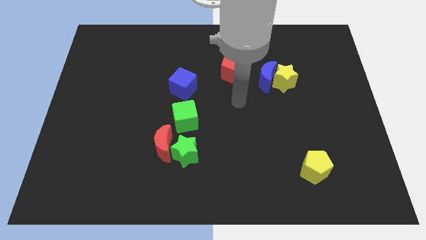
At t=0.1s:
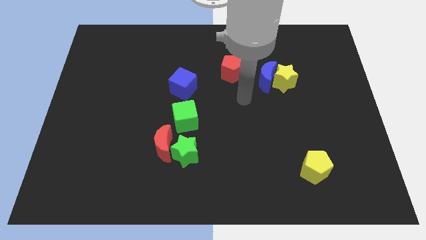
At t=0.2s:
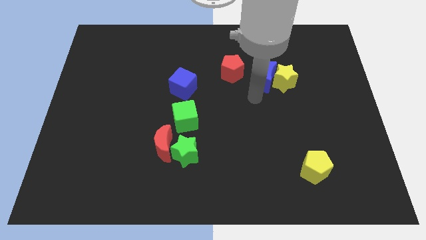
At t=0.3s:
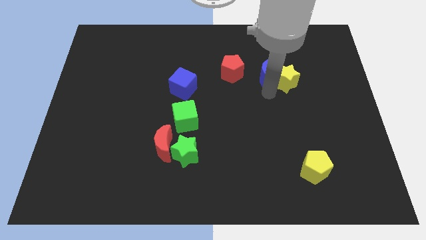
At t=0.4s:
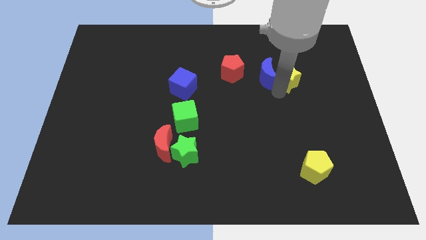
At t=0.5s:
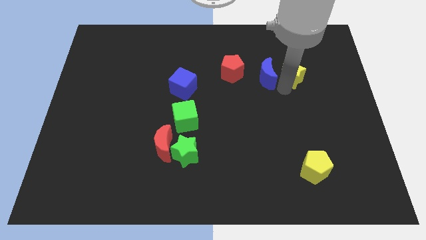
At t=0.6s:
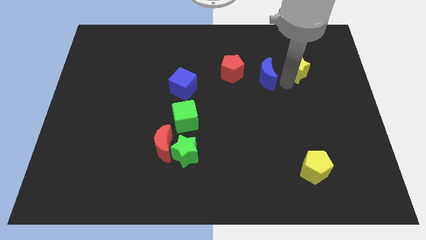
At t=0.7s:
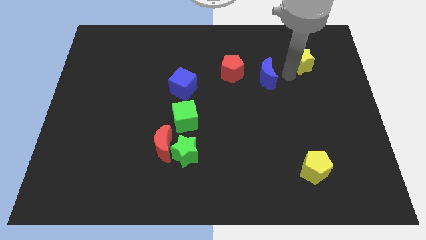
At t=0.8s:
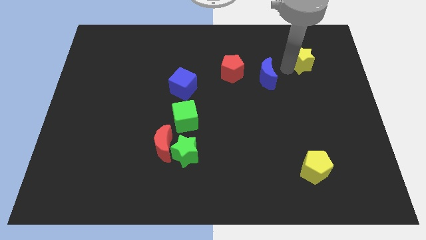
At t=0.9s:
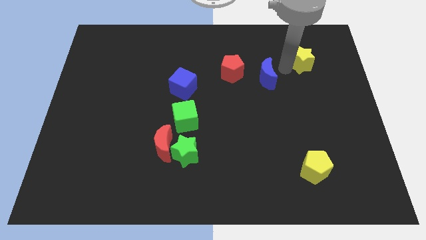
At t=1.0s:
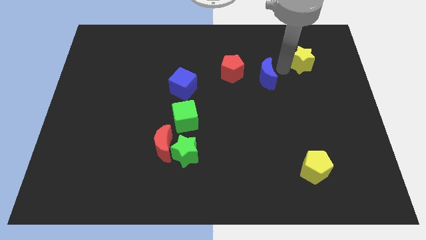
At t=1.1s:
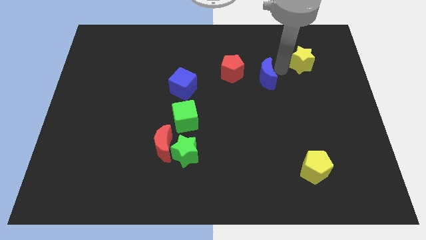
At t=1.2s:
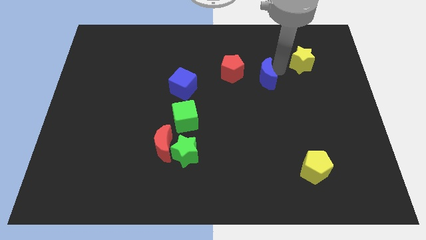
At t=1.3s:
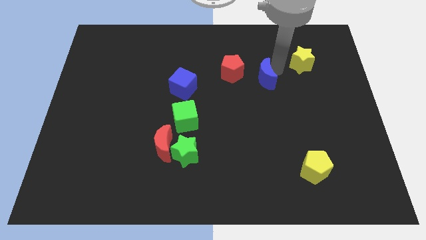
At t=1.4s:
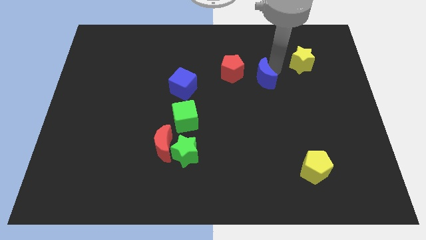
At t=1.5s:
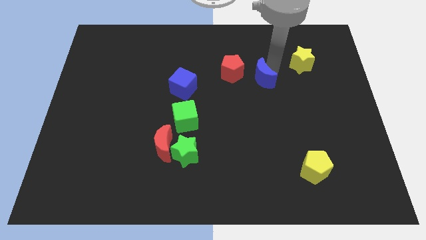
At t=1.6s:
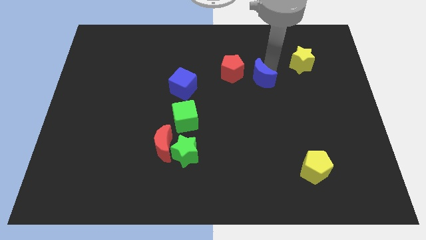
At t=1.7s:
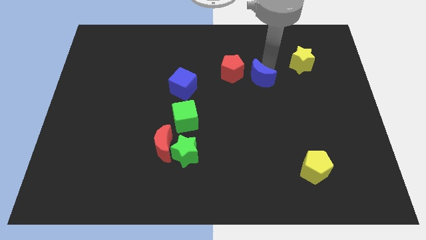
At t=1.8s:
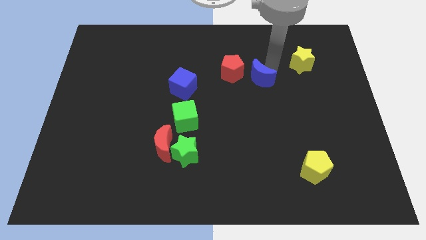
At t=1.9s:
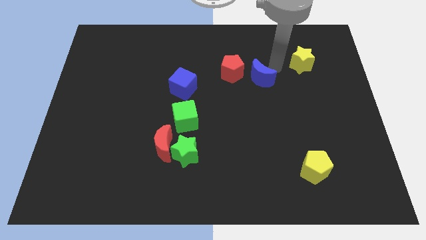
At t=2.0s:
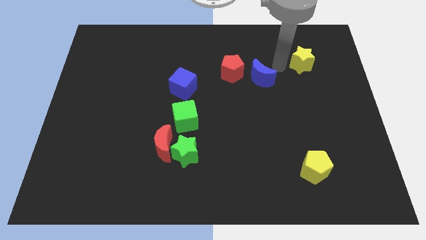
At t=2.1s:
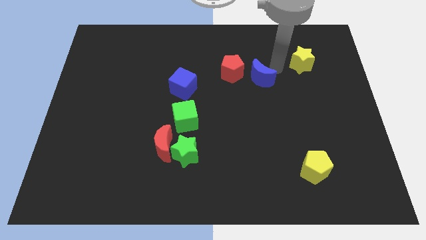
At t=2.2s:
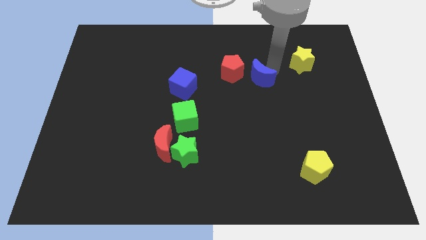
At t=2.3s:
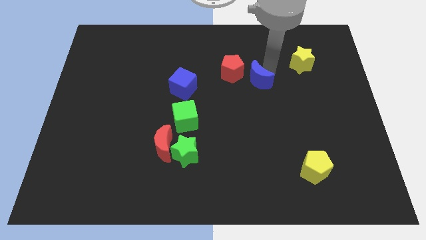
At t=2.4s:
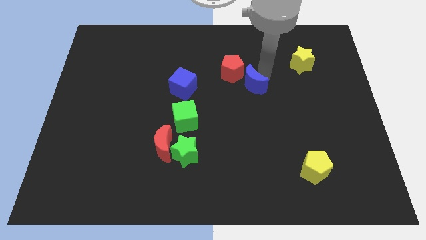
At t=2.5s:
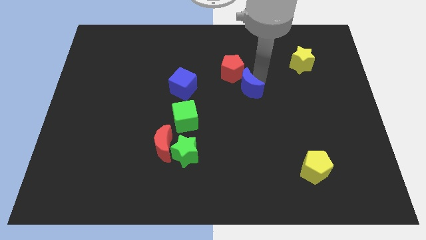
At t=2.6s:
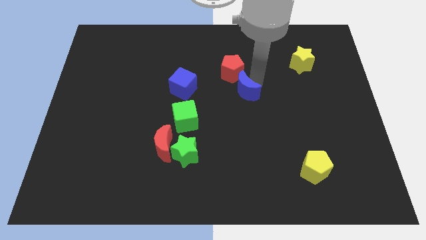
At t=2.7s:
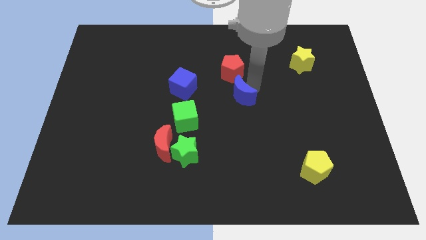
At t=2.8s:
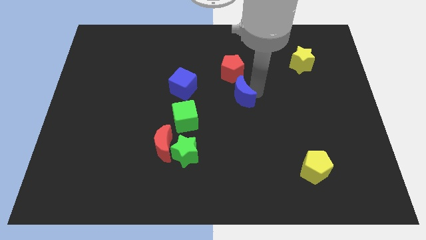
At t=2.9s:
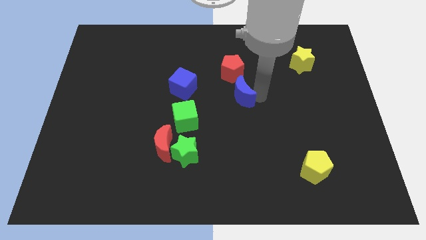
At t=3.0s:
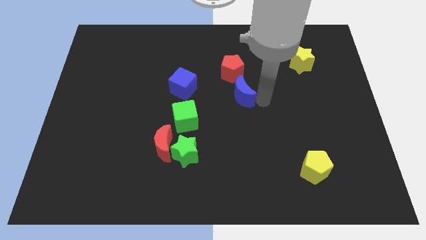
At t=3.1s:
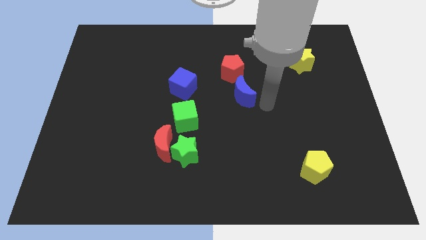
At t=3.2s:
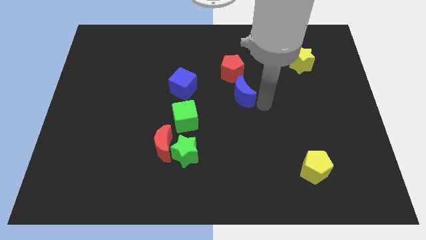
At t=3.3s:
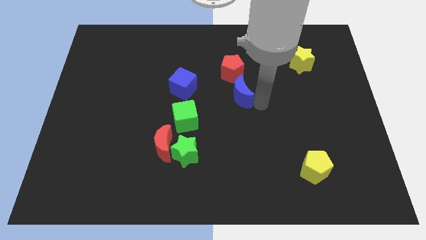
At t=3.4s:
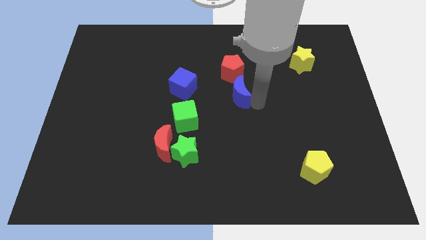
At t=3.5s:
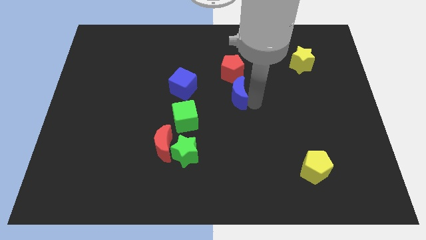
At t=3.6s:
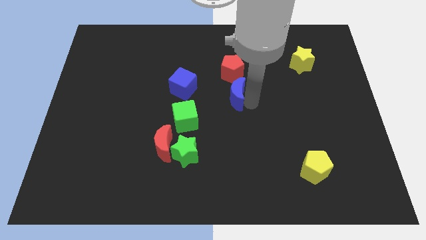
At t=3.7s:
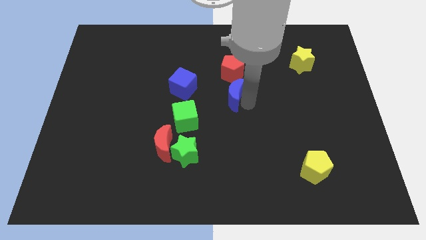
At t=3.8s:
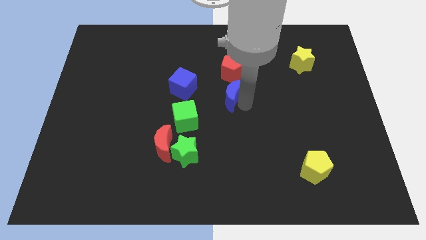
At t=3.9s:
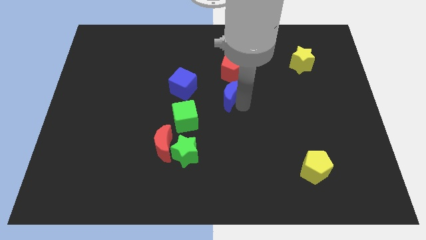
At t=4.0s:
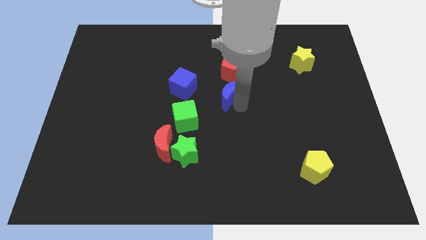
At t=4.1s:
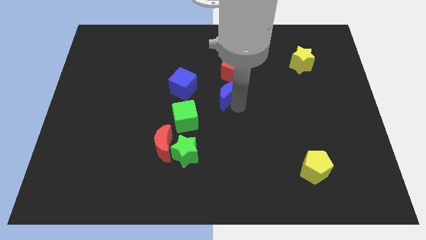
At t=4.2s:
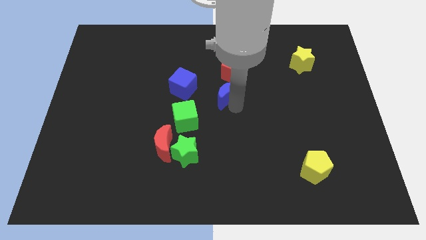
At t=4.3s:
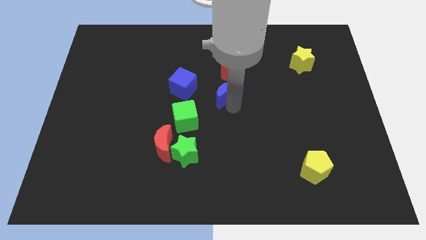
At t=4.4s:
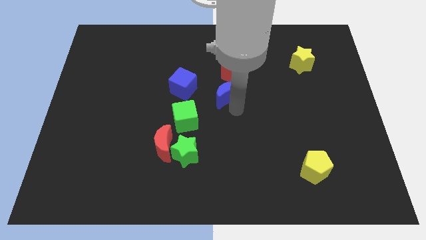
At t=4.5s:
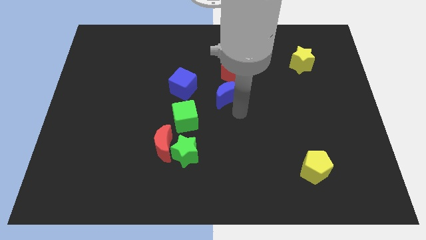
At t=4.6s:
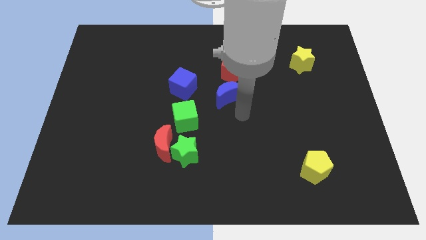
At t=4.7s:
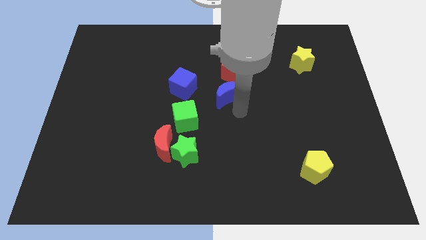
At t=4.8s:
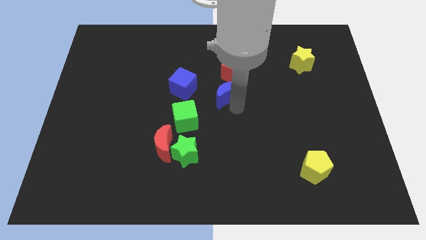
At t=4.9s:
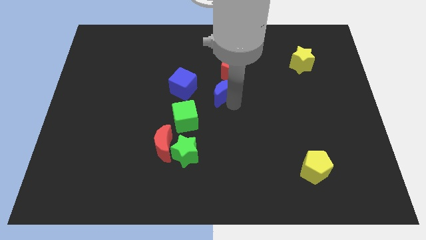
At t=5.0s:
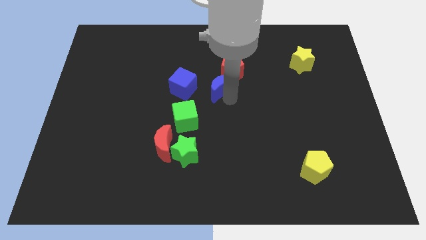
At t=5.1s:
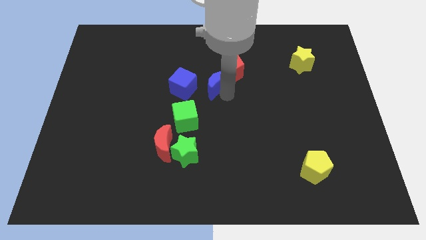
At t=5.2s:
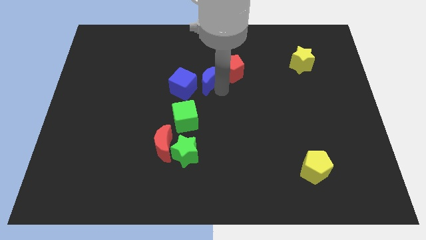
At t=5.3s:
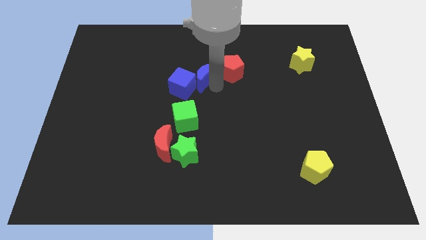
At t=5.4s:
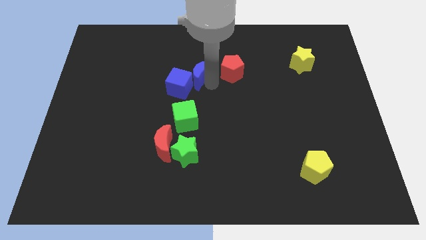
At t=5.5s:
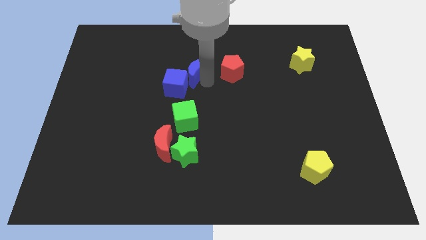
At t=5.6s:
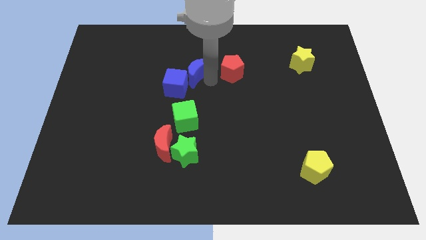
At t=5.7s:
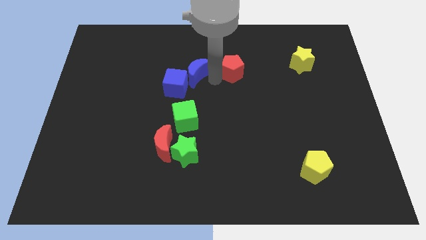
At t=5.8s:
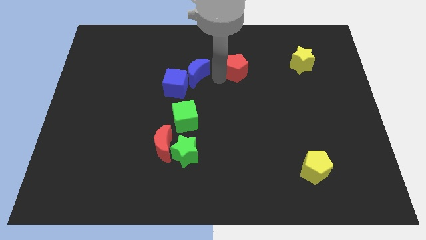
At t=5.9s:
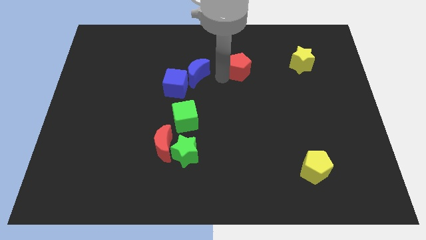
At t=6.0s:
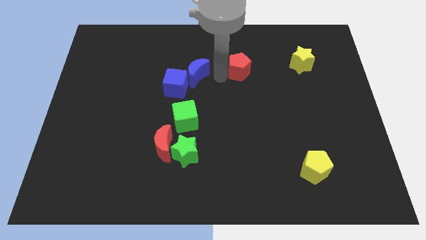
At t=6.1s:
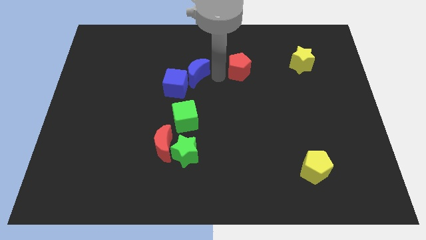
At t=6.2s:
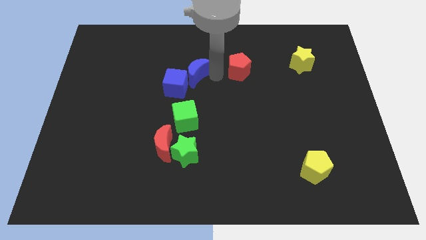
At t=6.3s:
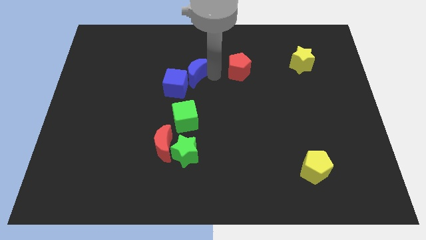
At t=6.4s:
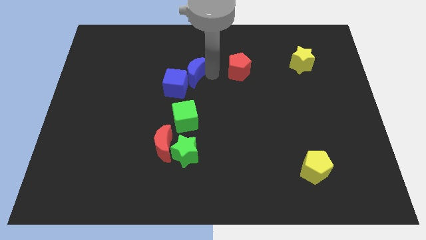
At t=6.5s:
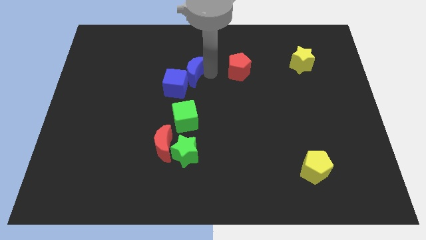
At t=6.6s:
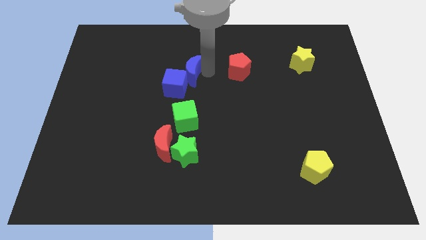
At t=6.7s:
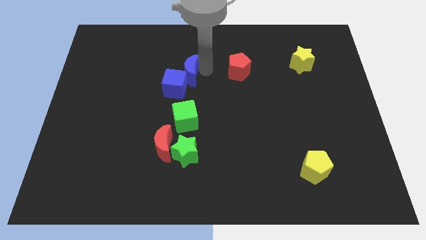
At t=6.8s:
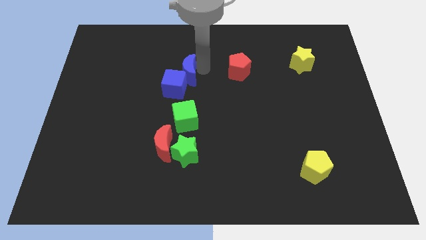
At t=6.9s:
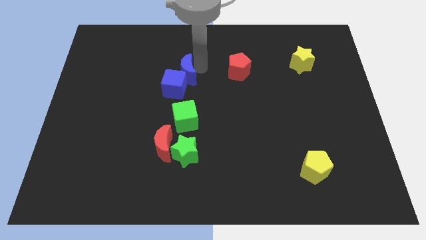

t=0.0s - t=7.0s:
push the blue moon left

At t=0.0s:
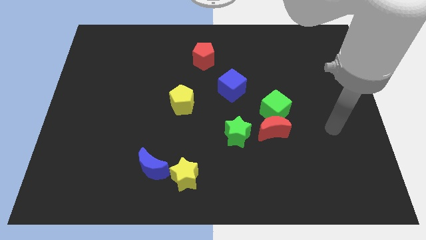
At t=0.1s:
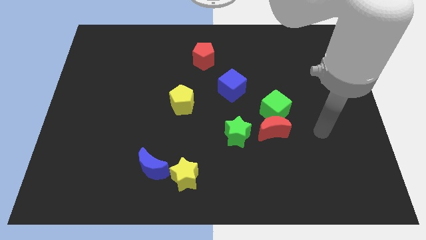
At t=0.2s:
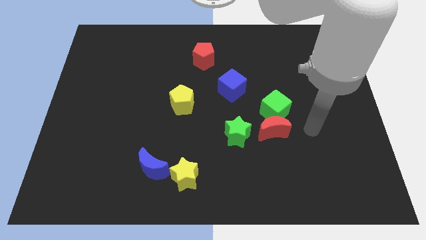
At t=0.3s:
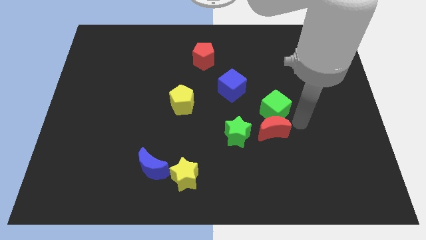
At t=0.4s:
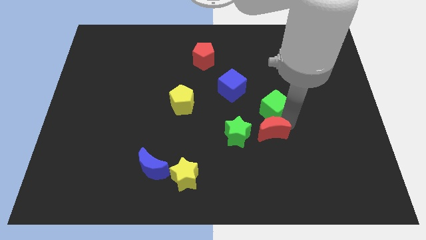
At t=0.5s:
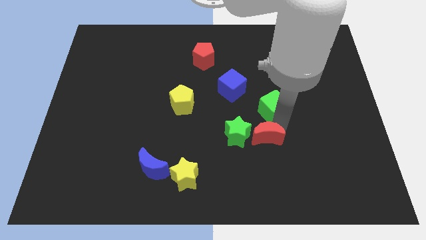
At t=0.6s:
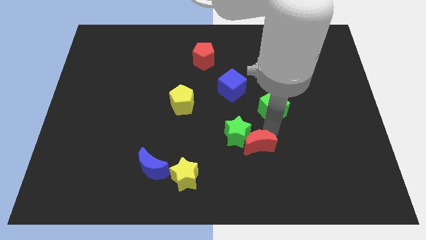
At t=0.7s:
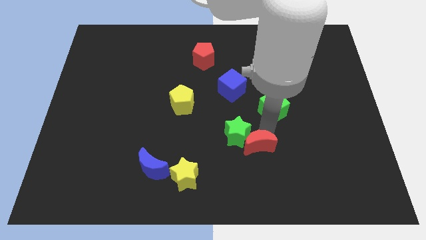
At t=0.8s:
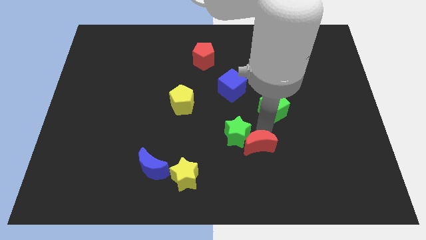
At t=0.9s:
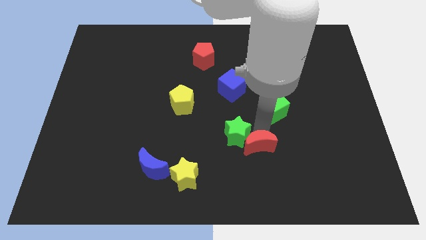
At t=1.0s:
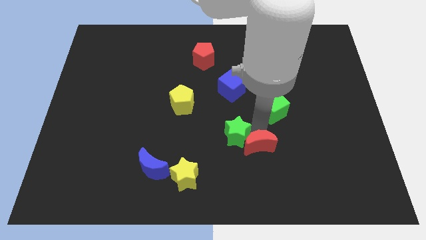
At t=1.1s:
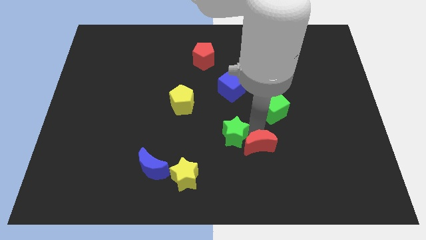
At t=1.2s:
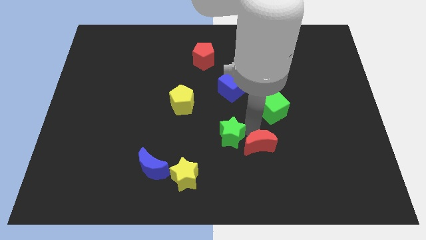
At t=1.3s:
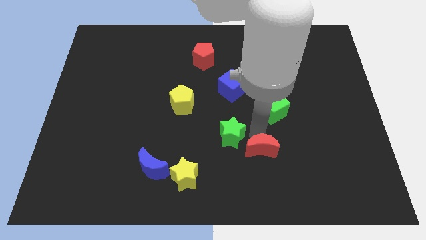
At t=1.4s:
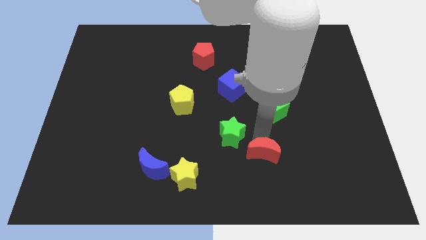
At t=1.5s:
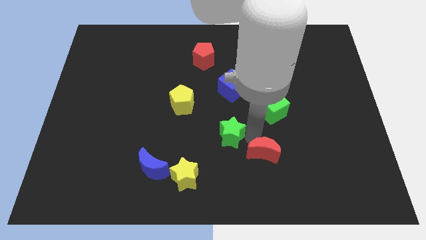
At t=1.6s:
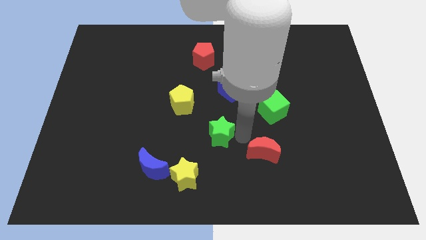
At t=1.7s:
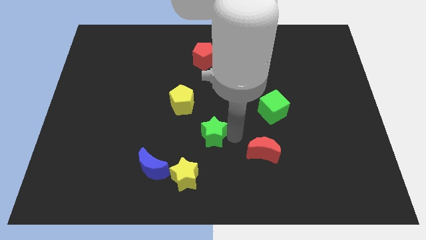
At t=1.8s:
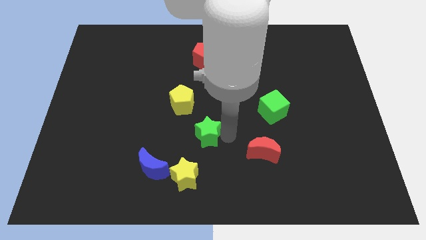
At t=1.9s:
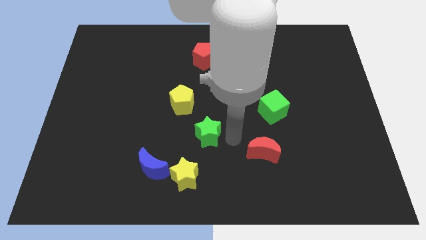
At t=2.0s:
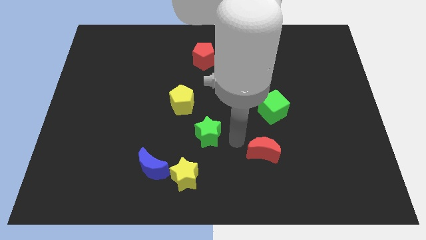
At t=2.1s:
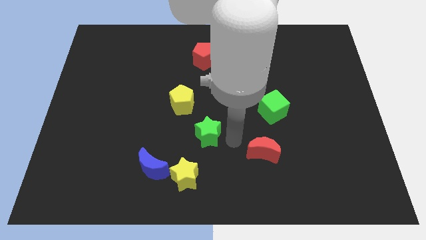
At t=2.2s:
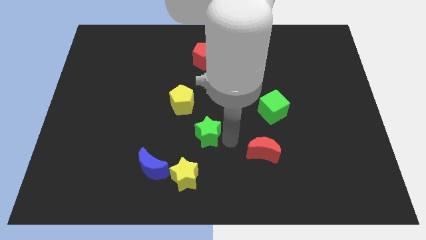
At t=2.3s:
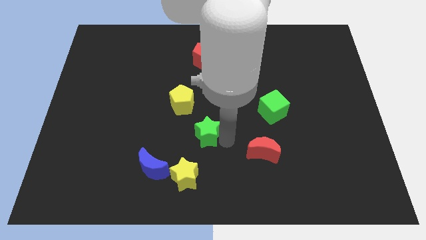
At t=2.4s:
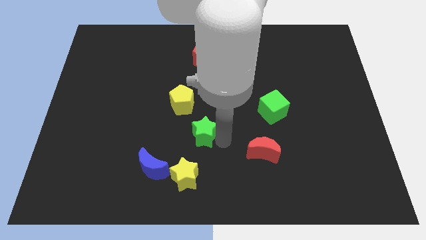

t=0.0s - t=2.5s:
push the green star to the left somewhat
